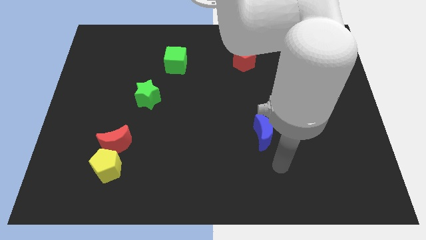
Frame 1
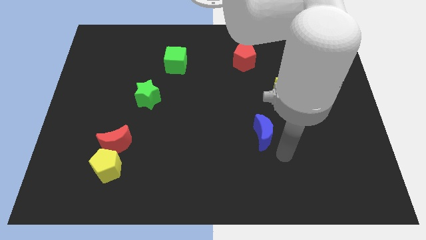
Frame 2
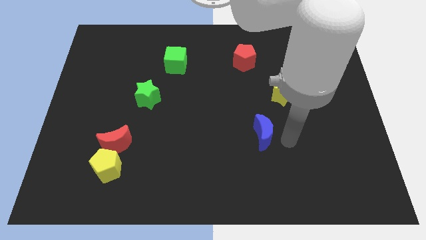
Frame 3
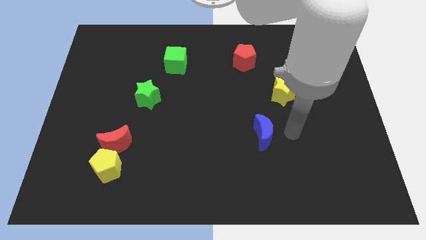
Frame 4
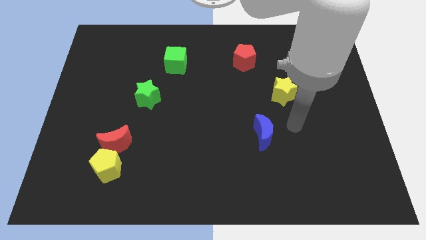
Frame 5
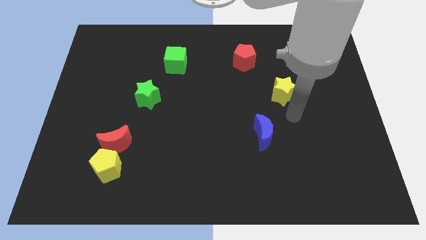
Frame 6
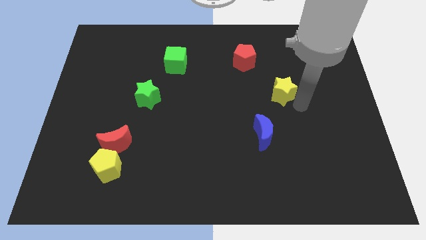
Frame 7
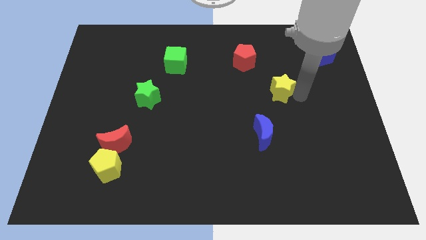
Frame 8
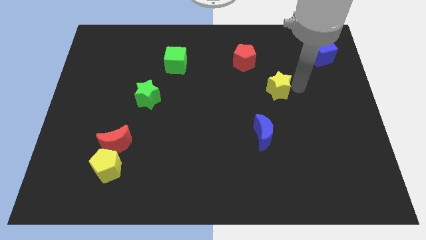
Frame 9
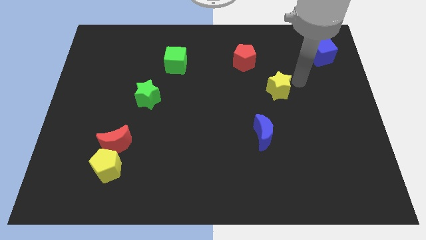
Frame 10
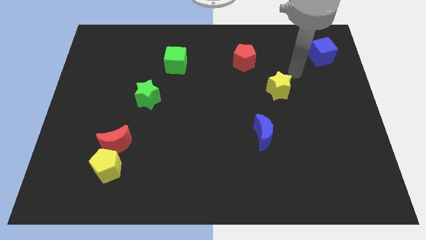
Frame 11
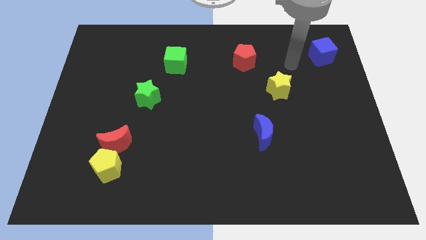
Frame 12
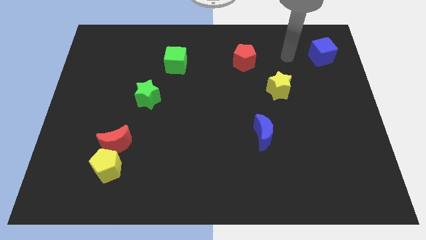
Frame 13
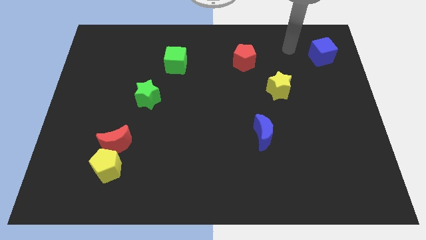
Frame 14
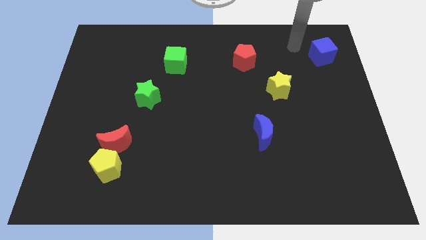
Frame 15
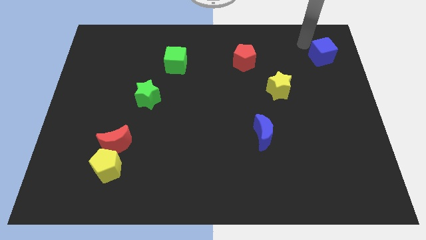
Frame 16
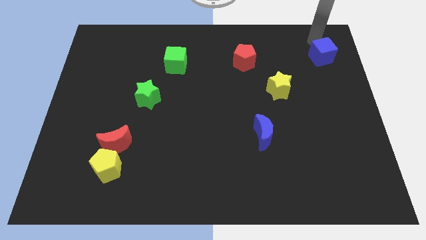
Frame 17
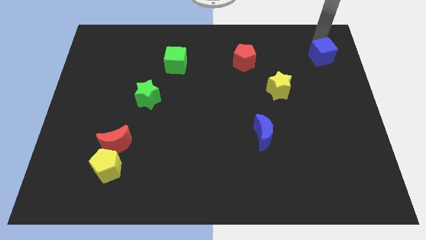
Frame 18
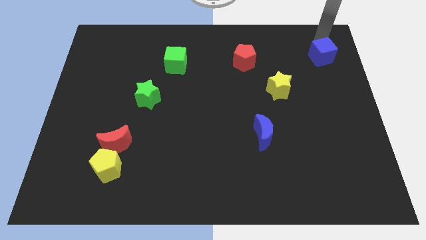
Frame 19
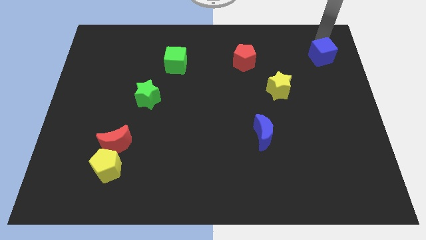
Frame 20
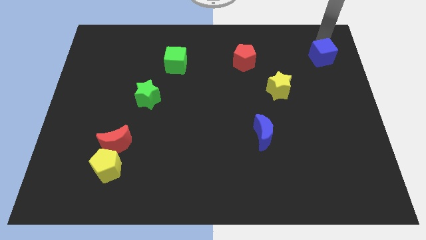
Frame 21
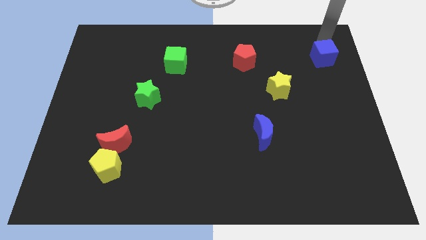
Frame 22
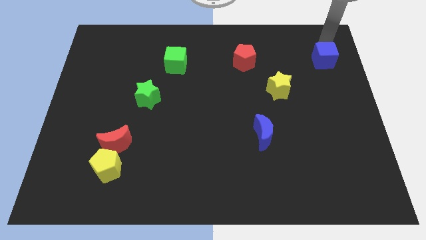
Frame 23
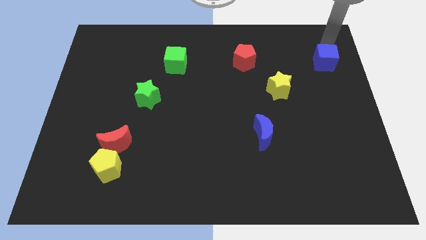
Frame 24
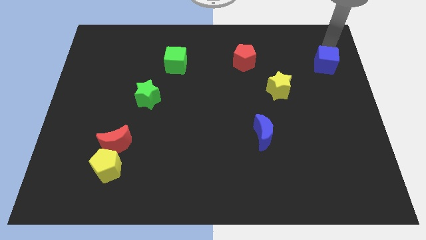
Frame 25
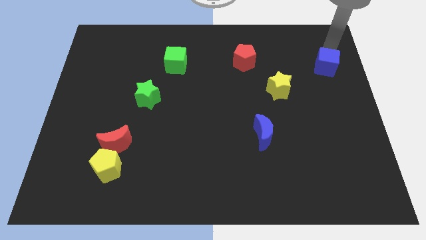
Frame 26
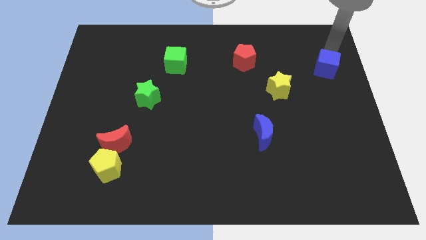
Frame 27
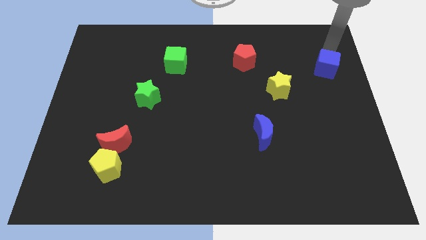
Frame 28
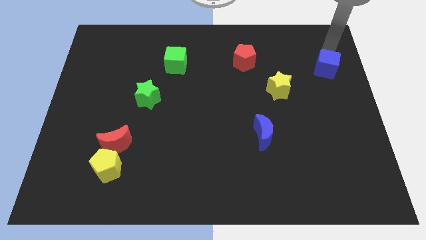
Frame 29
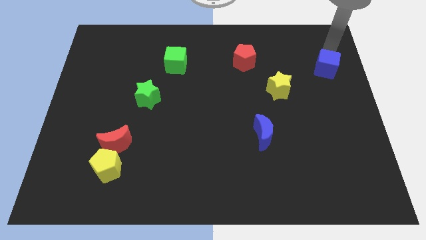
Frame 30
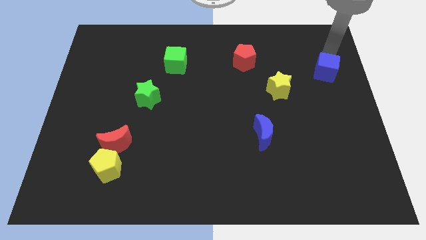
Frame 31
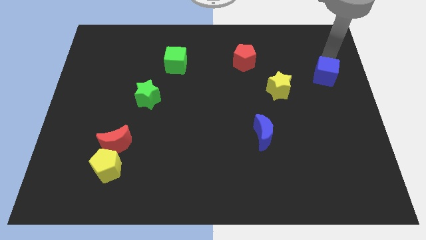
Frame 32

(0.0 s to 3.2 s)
slide the blue cube a little bit downwards

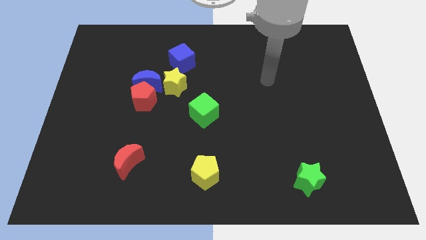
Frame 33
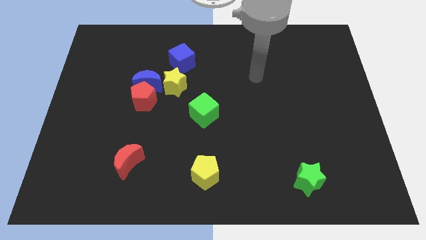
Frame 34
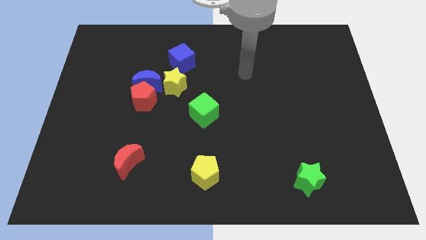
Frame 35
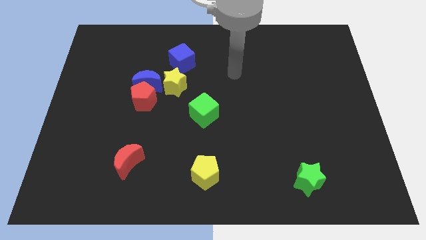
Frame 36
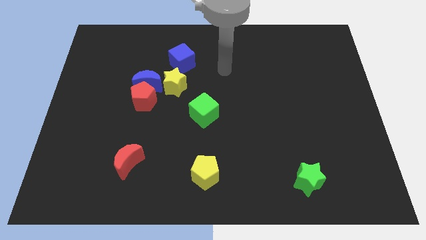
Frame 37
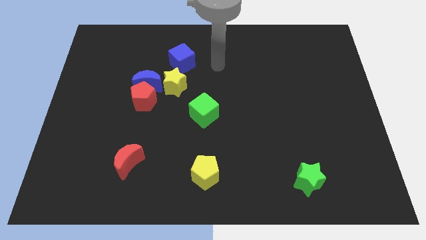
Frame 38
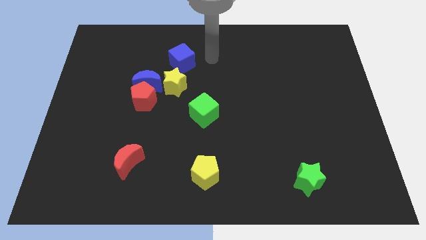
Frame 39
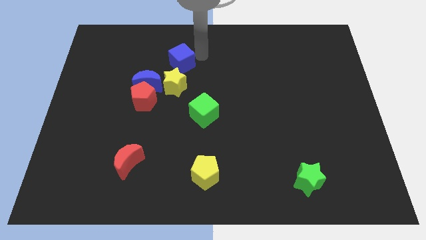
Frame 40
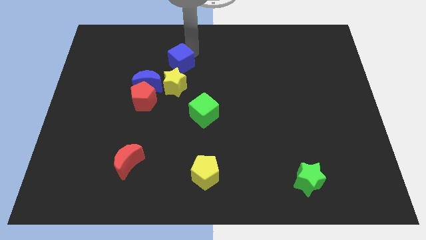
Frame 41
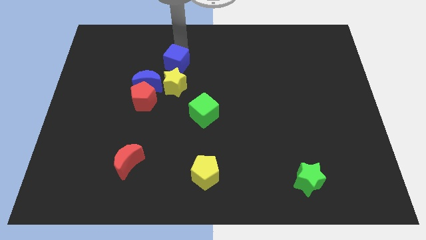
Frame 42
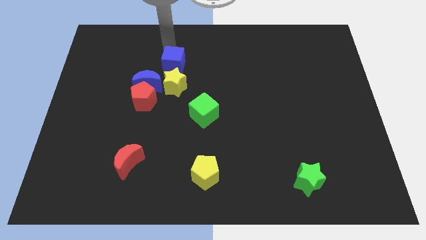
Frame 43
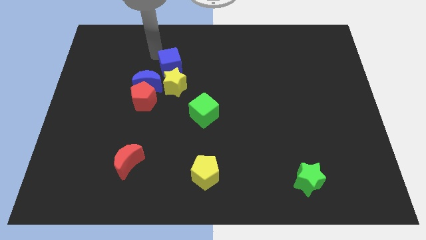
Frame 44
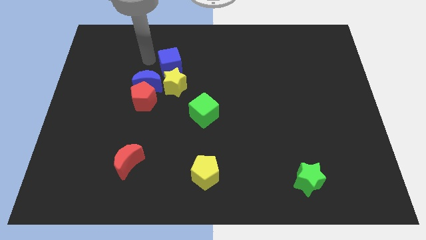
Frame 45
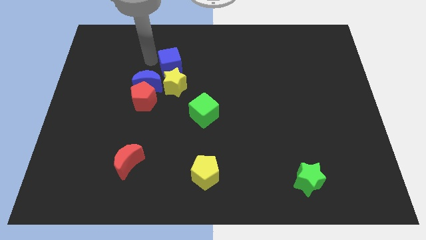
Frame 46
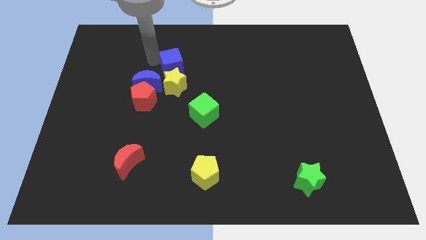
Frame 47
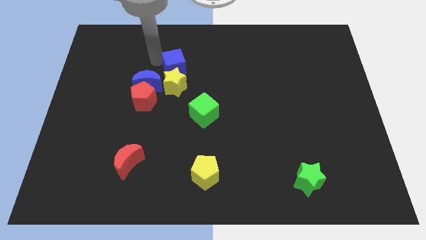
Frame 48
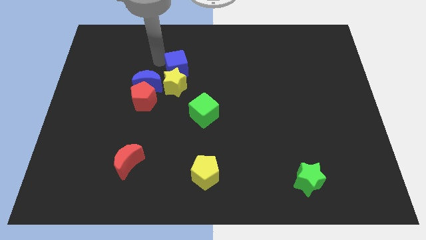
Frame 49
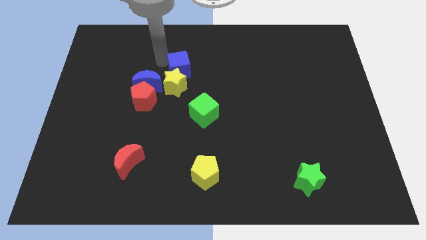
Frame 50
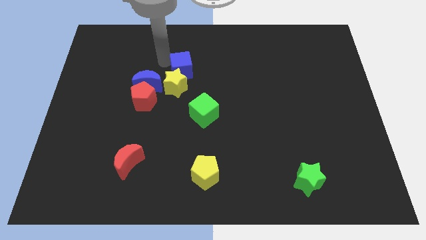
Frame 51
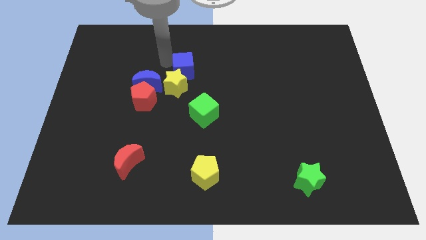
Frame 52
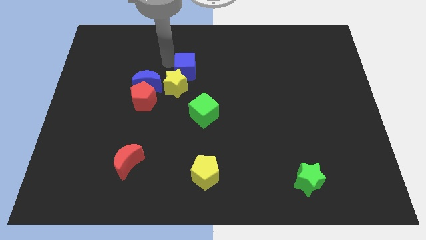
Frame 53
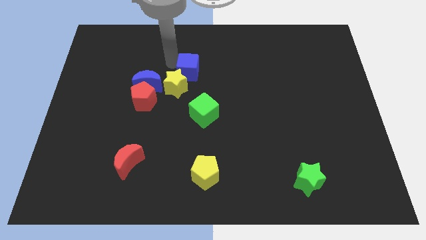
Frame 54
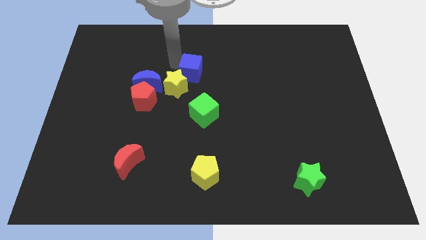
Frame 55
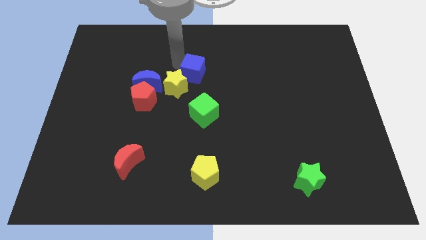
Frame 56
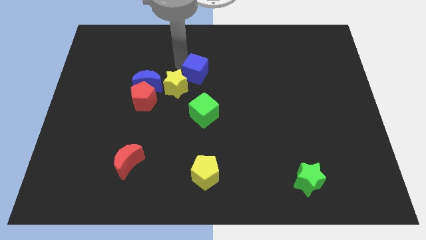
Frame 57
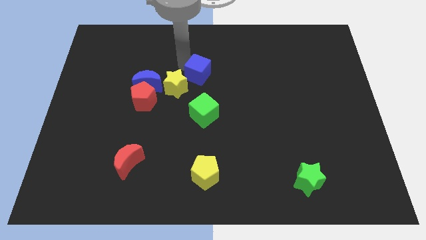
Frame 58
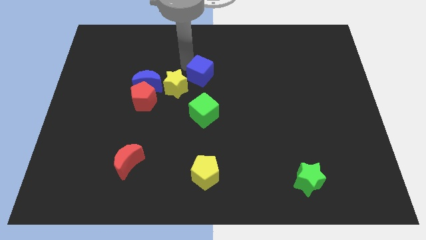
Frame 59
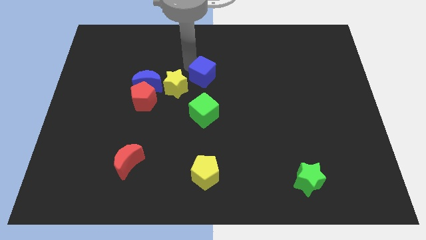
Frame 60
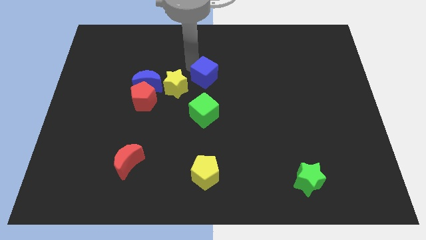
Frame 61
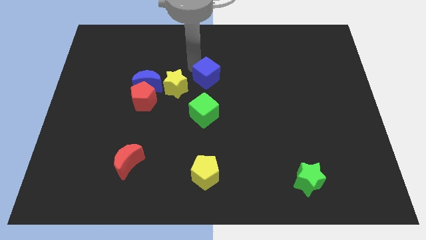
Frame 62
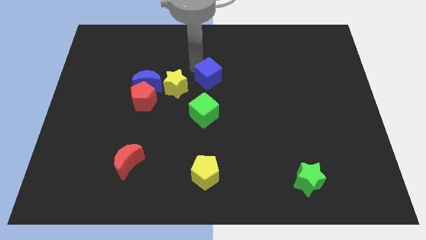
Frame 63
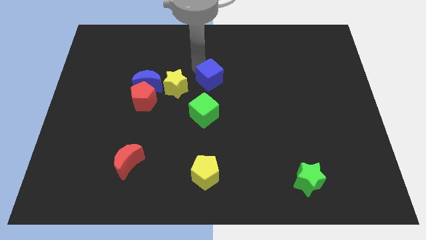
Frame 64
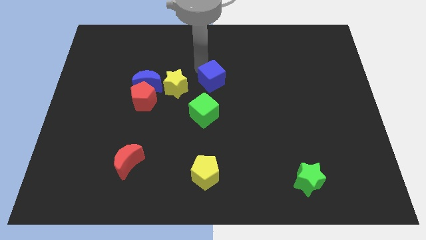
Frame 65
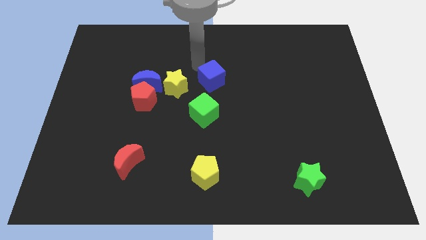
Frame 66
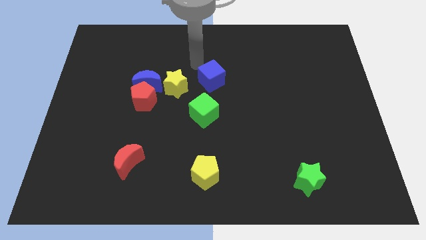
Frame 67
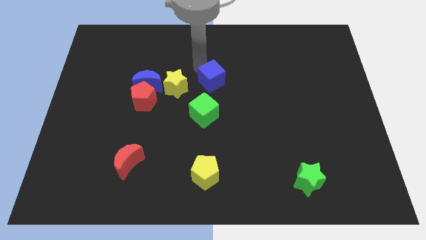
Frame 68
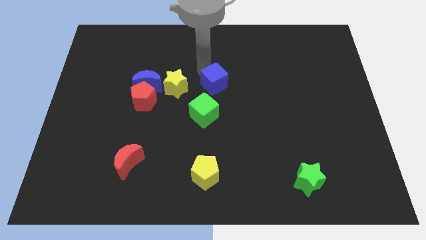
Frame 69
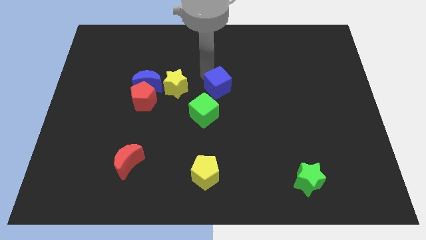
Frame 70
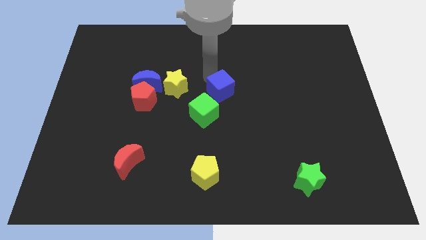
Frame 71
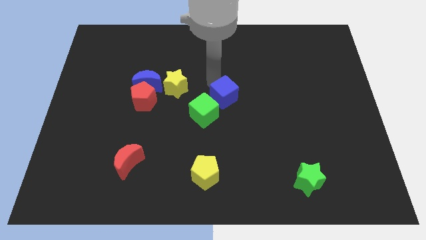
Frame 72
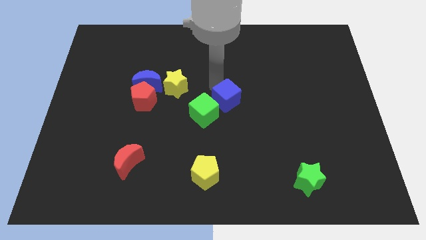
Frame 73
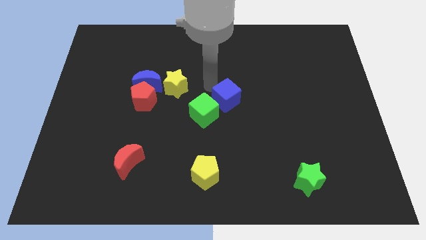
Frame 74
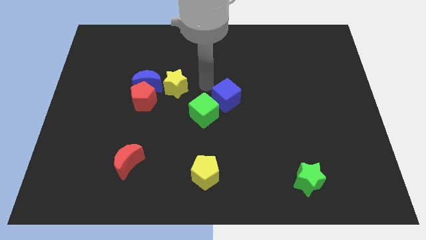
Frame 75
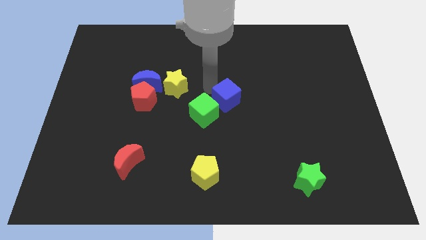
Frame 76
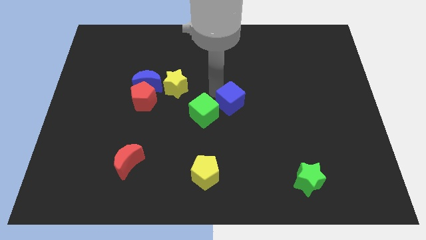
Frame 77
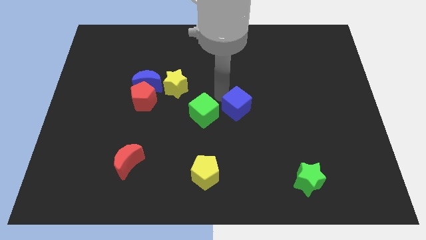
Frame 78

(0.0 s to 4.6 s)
move the blue cube downwards and to the right

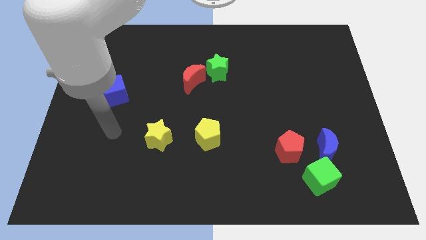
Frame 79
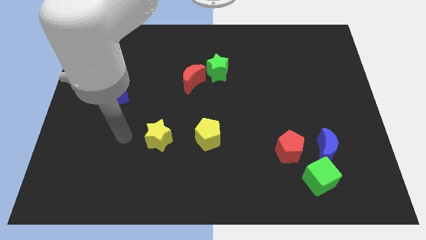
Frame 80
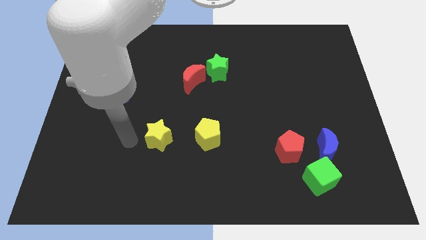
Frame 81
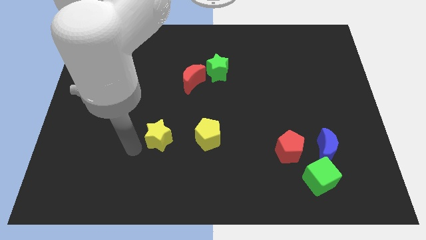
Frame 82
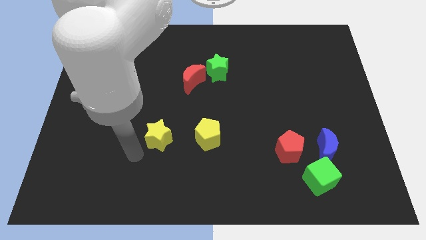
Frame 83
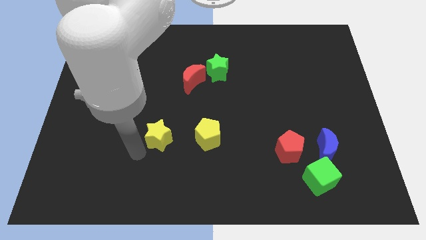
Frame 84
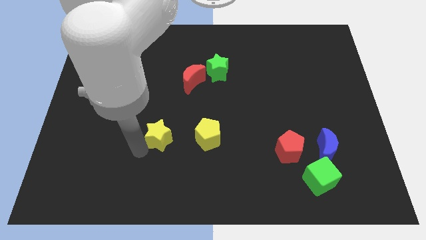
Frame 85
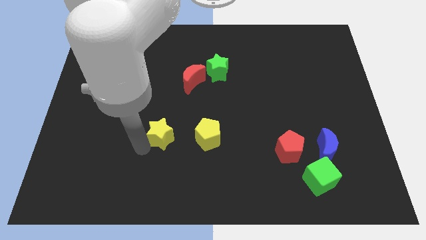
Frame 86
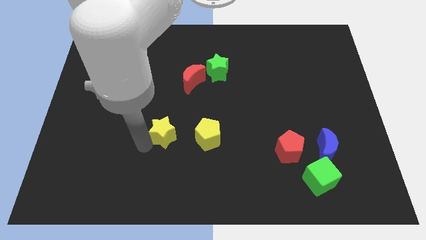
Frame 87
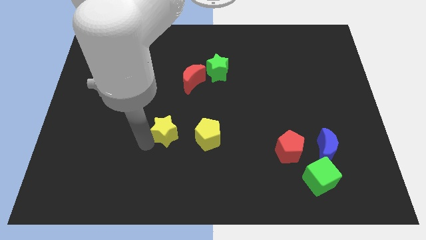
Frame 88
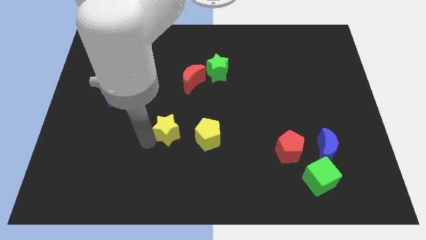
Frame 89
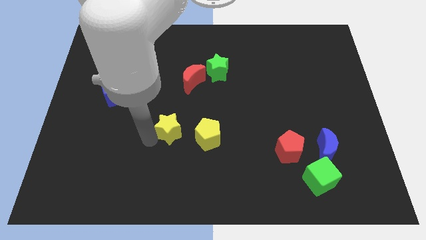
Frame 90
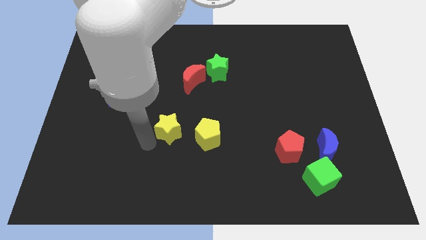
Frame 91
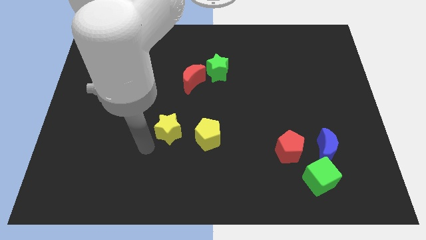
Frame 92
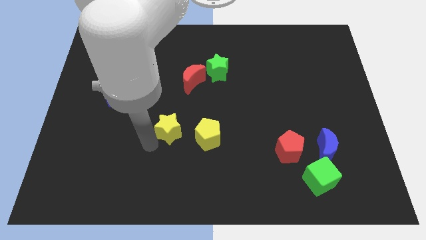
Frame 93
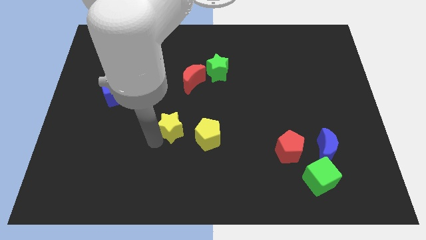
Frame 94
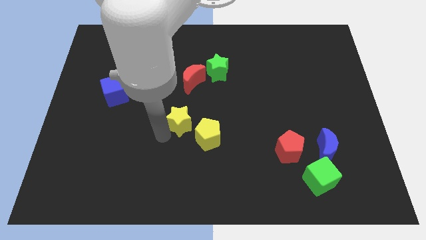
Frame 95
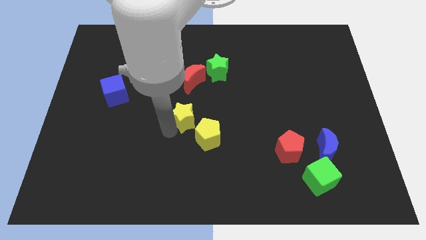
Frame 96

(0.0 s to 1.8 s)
slide the yellow star up and then right a bit
